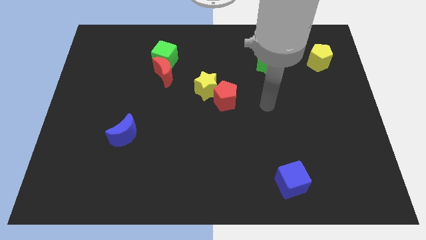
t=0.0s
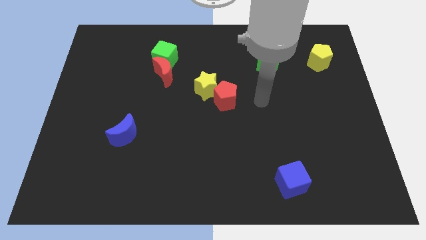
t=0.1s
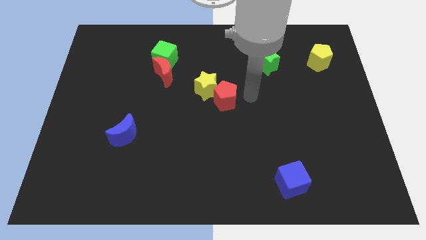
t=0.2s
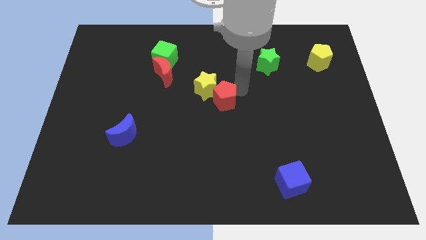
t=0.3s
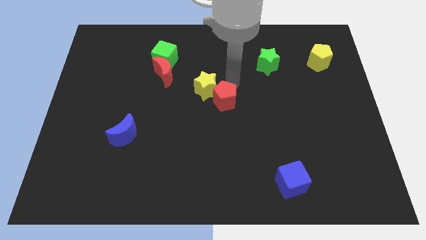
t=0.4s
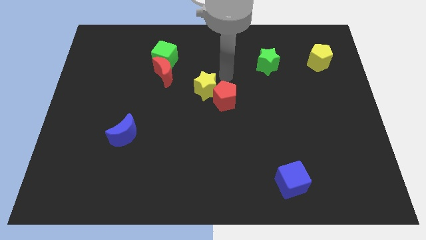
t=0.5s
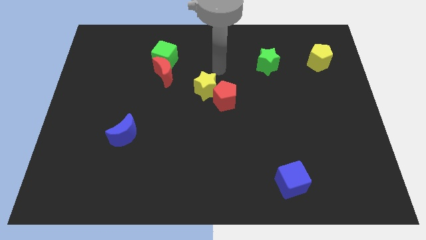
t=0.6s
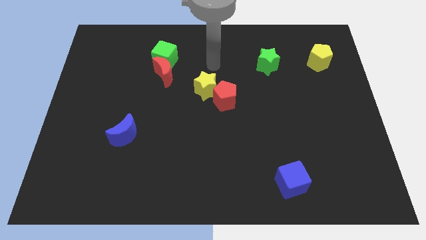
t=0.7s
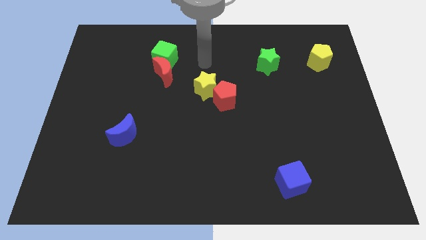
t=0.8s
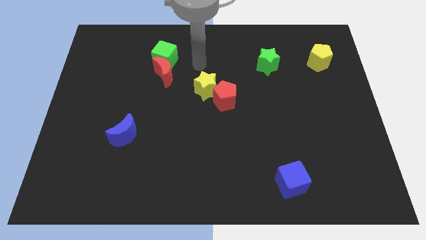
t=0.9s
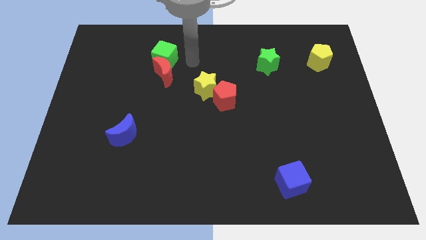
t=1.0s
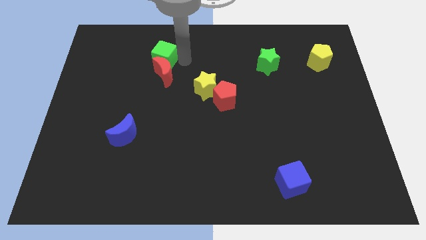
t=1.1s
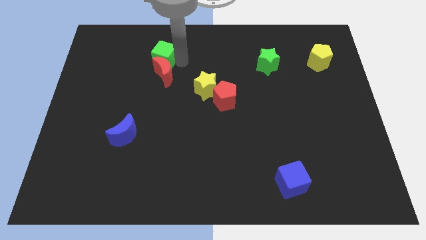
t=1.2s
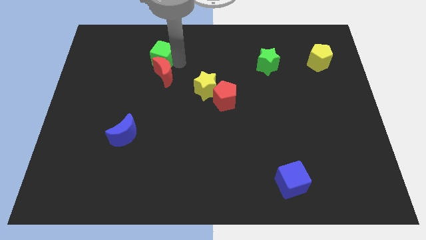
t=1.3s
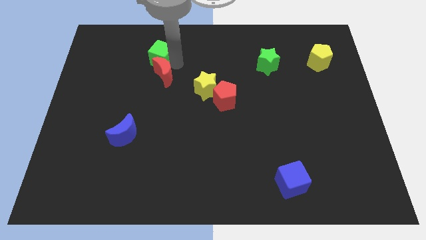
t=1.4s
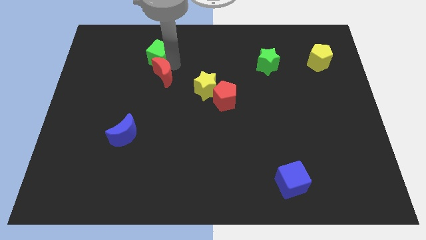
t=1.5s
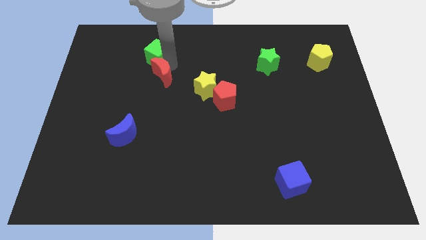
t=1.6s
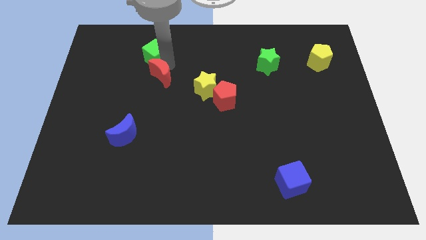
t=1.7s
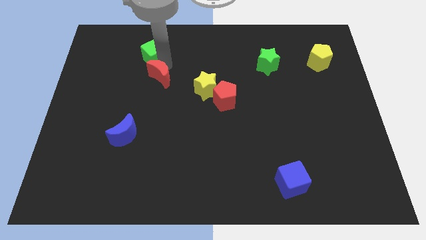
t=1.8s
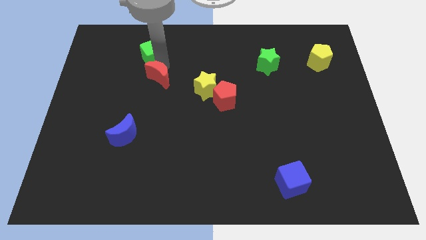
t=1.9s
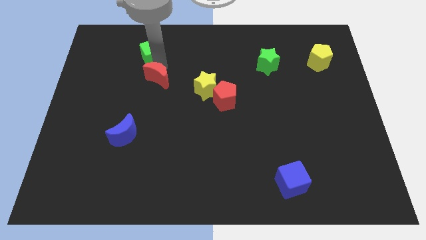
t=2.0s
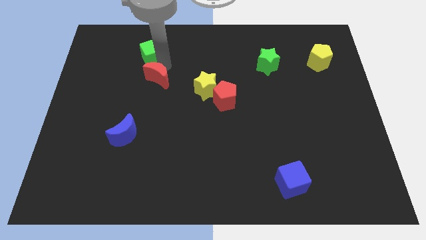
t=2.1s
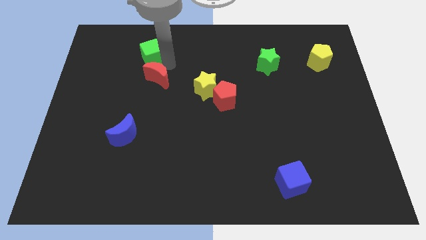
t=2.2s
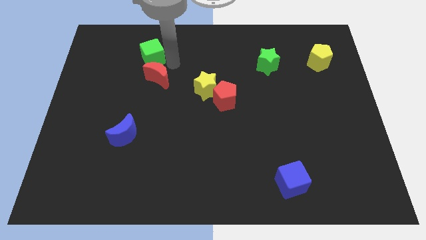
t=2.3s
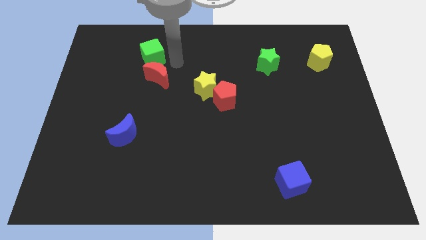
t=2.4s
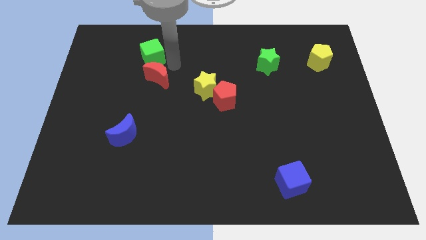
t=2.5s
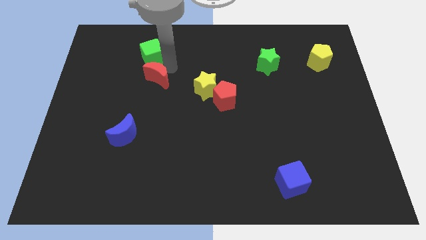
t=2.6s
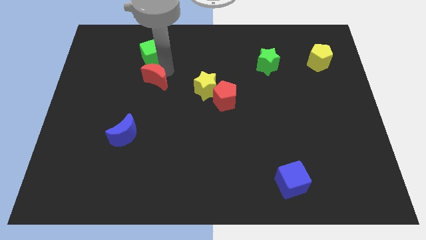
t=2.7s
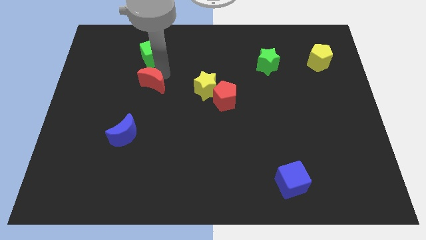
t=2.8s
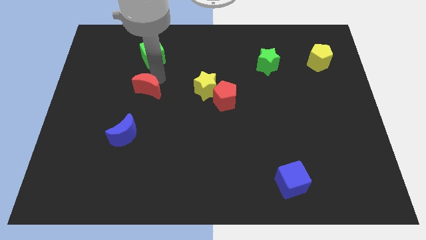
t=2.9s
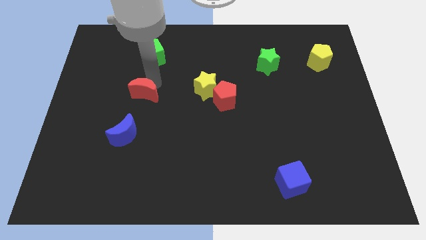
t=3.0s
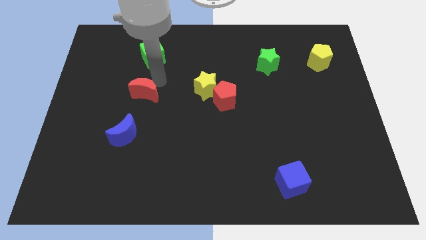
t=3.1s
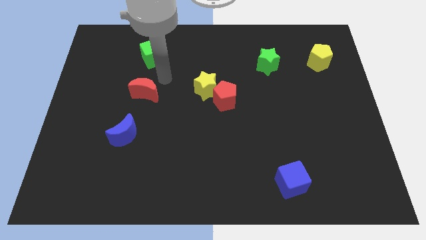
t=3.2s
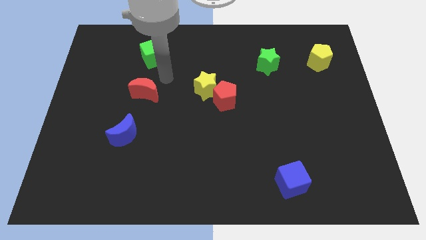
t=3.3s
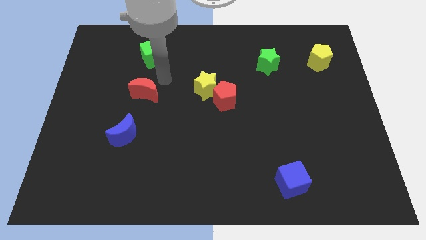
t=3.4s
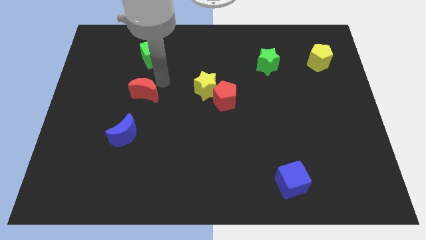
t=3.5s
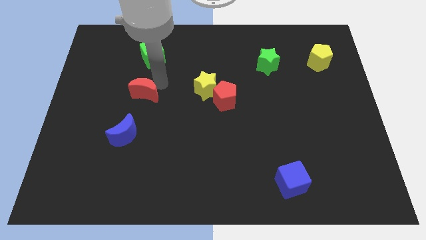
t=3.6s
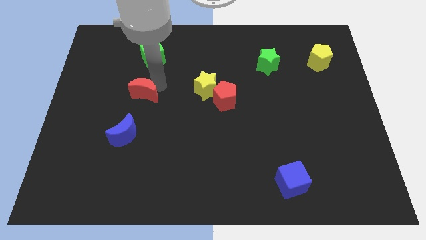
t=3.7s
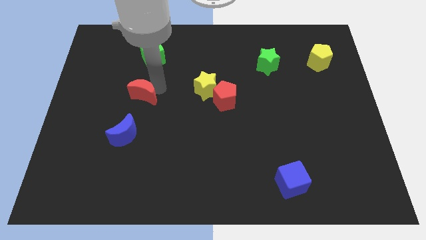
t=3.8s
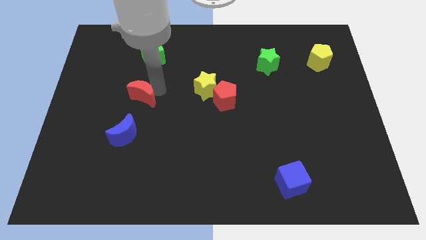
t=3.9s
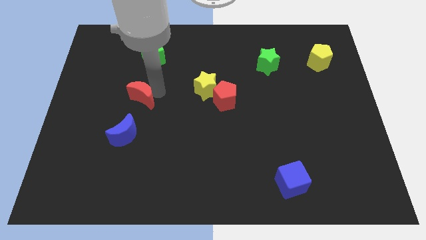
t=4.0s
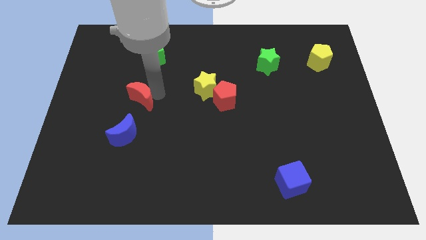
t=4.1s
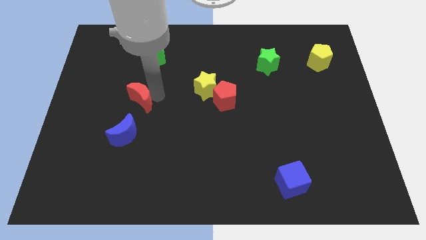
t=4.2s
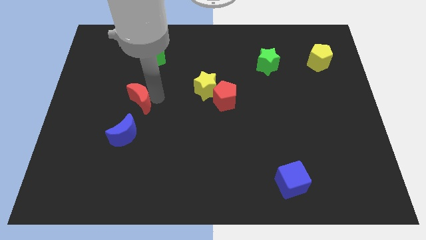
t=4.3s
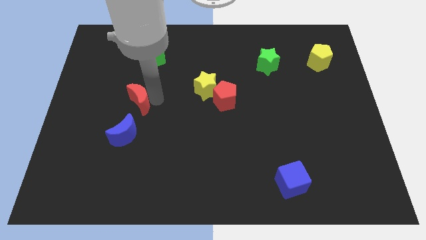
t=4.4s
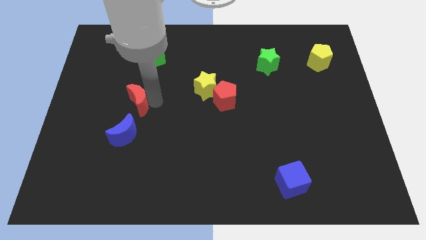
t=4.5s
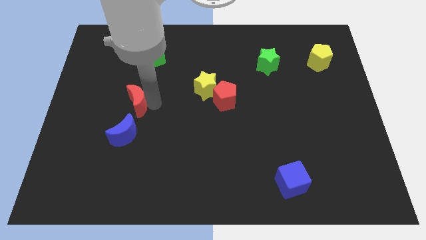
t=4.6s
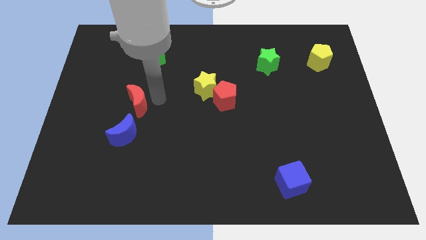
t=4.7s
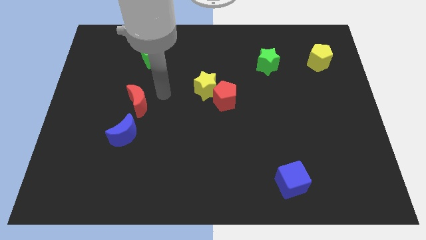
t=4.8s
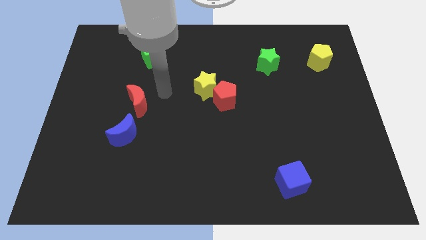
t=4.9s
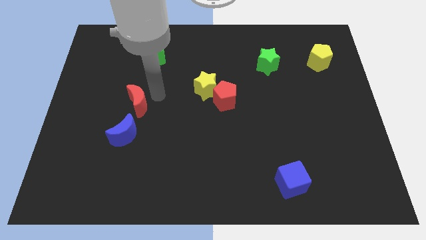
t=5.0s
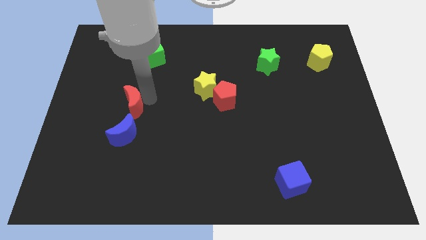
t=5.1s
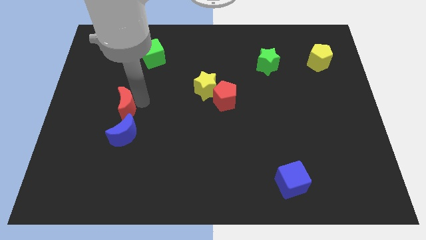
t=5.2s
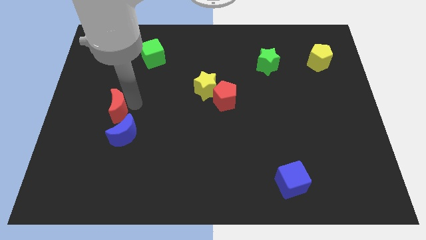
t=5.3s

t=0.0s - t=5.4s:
slide the red moon diagonally up and to the left of the blue moon

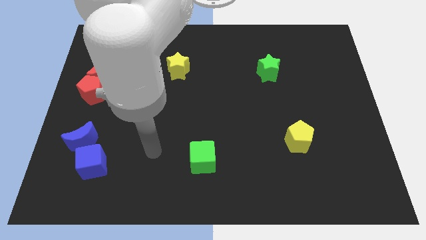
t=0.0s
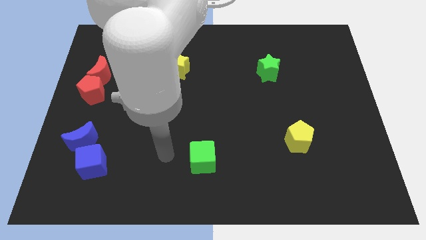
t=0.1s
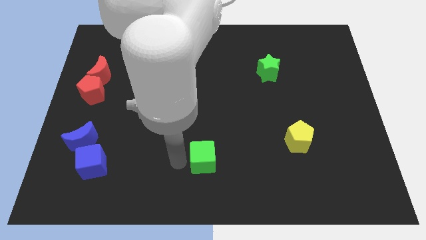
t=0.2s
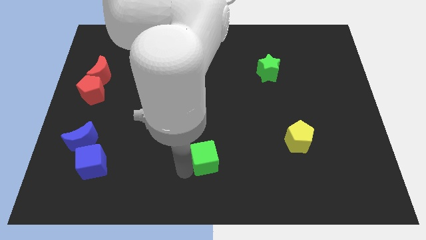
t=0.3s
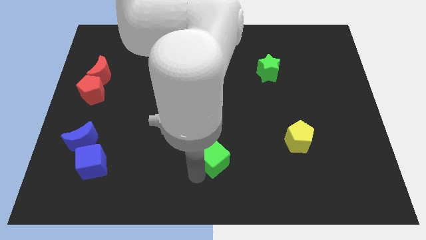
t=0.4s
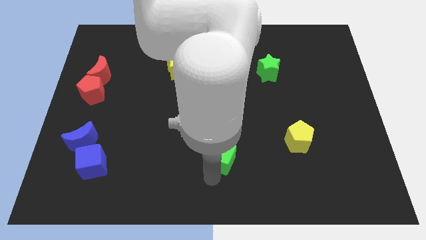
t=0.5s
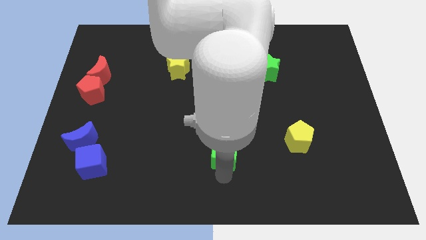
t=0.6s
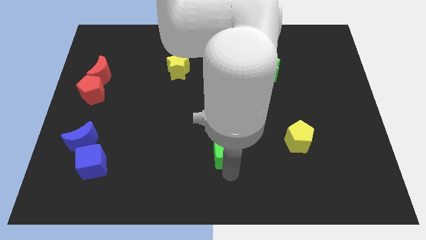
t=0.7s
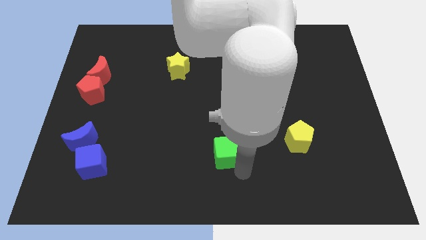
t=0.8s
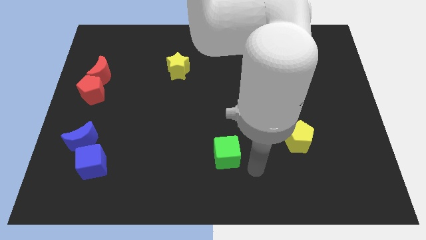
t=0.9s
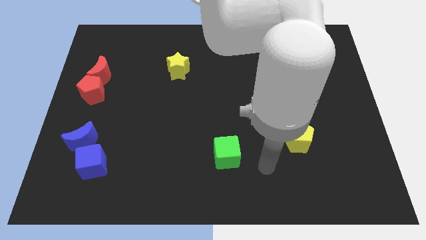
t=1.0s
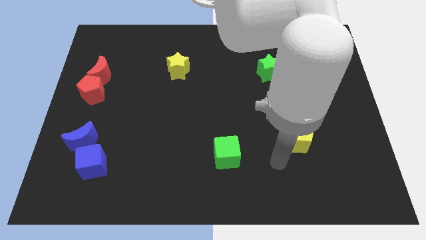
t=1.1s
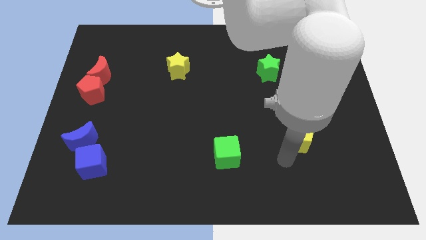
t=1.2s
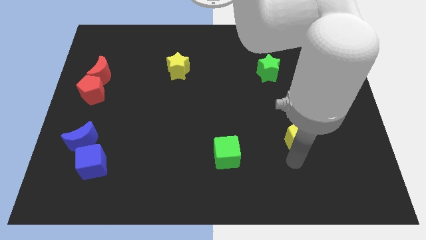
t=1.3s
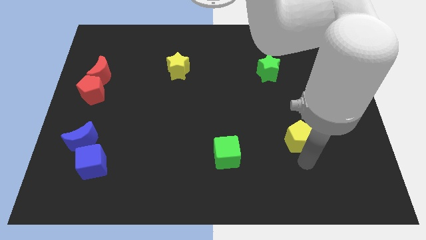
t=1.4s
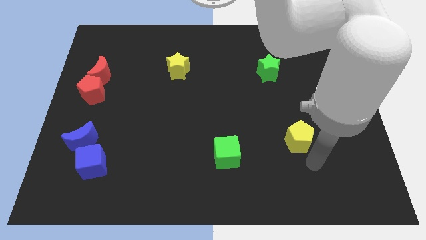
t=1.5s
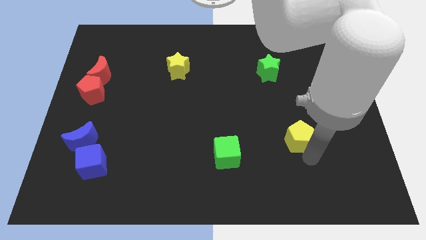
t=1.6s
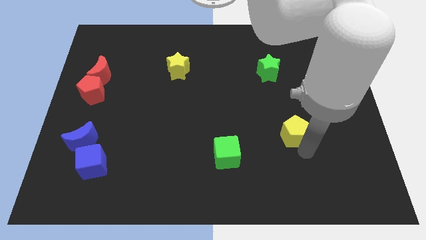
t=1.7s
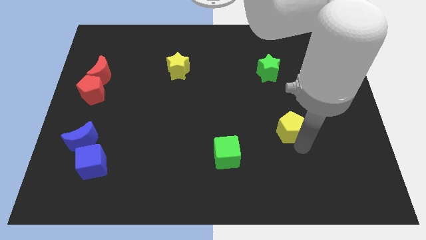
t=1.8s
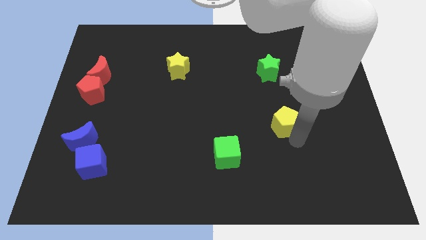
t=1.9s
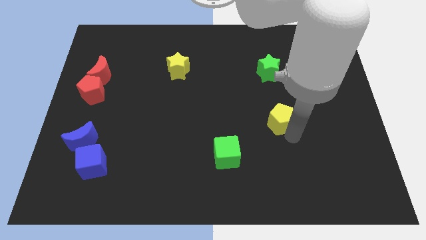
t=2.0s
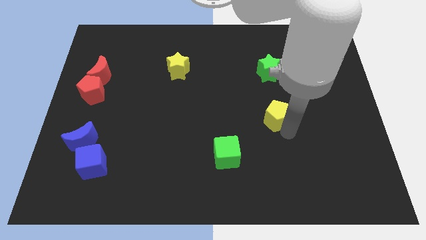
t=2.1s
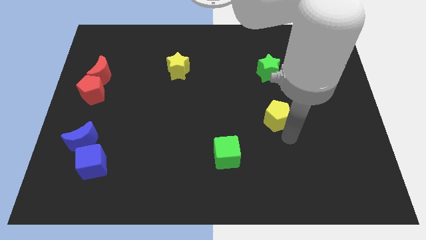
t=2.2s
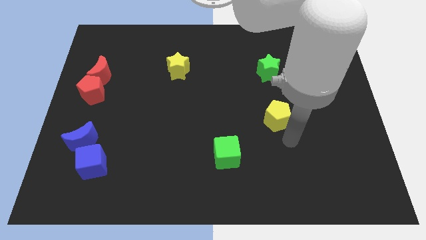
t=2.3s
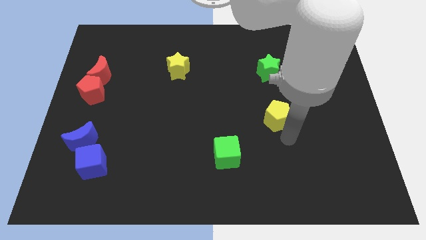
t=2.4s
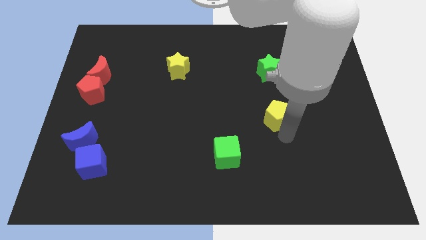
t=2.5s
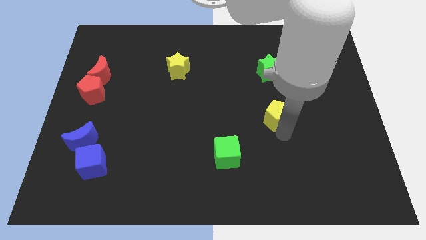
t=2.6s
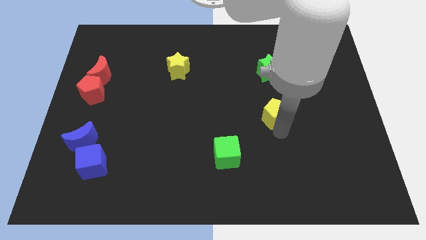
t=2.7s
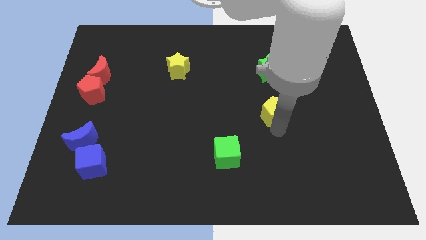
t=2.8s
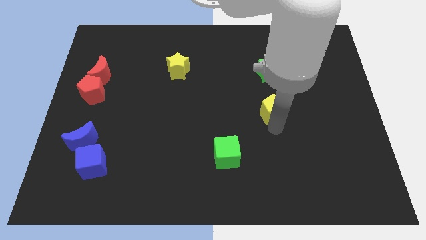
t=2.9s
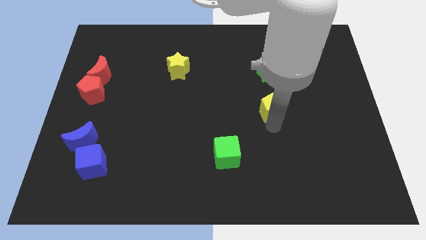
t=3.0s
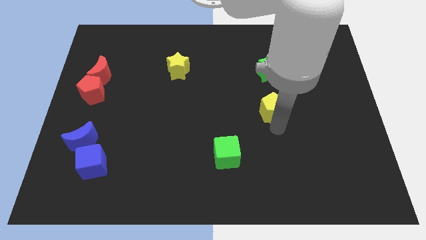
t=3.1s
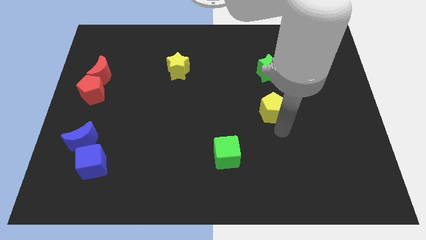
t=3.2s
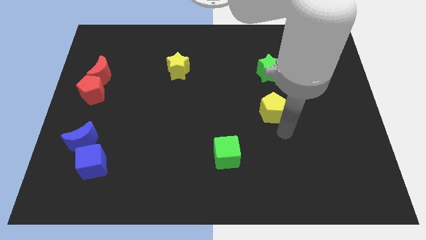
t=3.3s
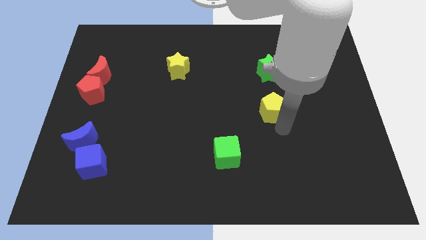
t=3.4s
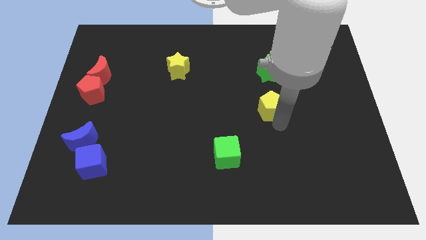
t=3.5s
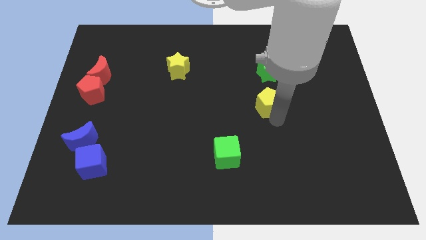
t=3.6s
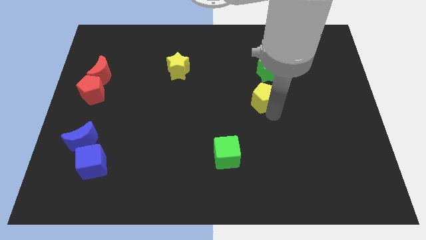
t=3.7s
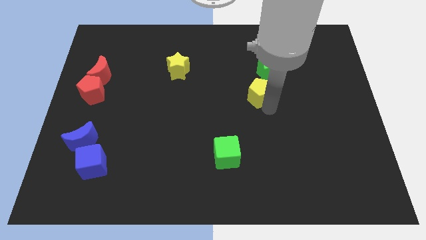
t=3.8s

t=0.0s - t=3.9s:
move the yellow pentagon to the bottom left side of the green star
